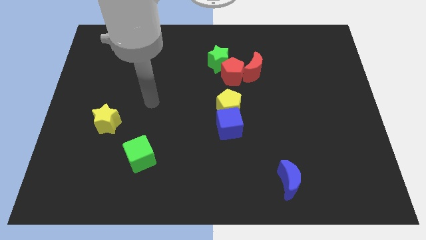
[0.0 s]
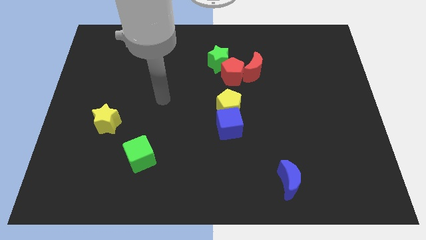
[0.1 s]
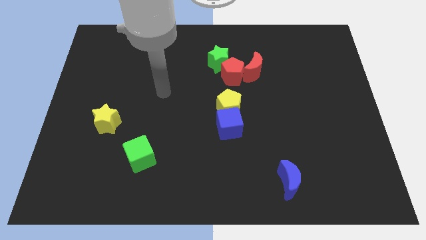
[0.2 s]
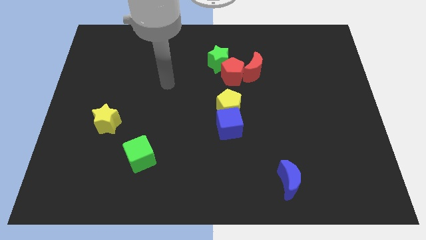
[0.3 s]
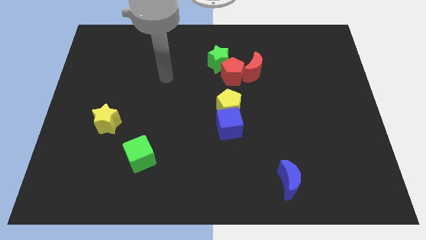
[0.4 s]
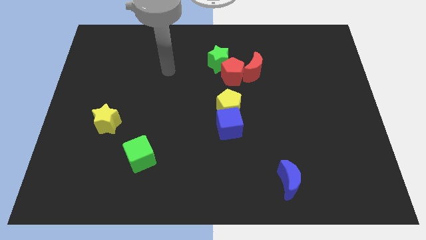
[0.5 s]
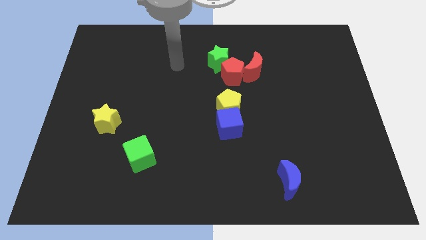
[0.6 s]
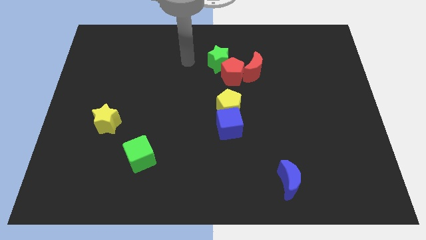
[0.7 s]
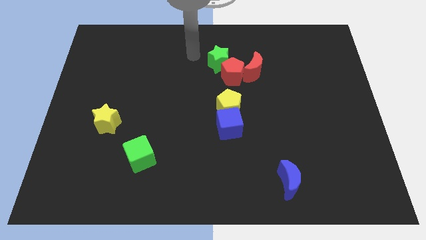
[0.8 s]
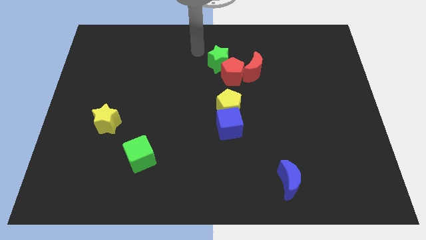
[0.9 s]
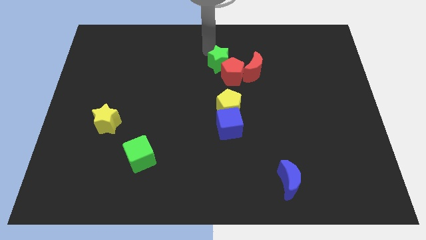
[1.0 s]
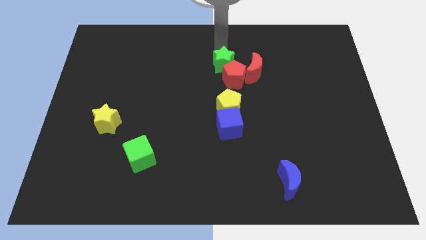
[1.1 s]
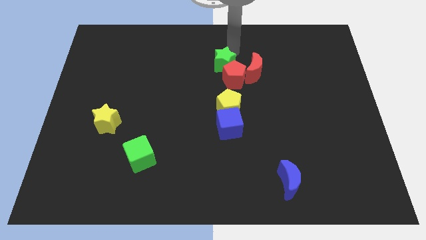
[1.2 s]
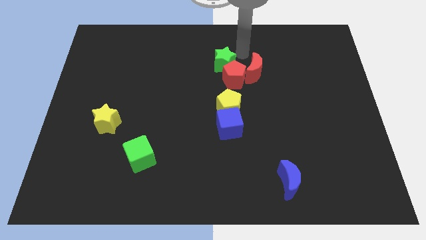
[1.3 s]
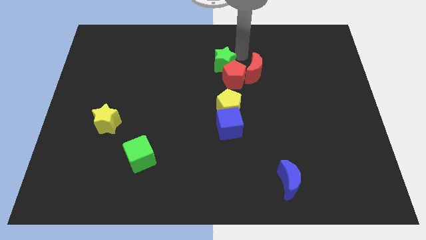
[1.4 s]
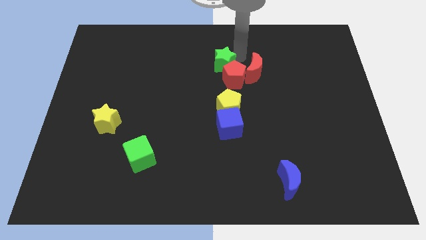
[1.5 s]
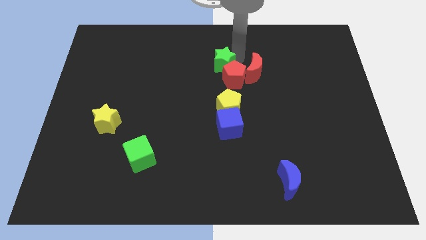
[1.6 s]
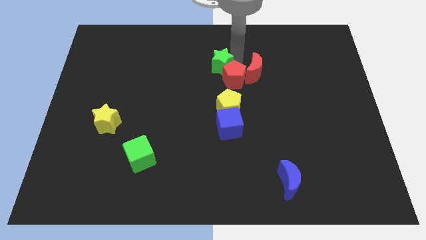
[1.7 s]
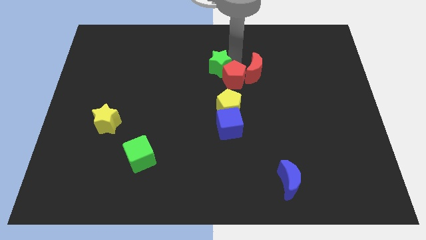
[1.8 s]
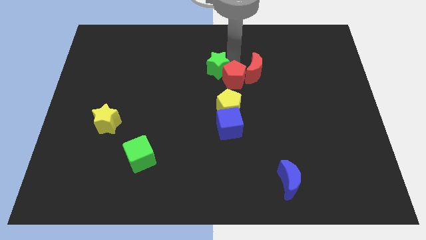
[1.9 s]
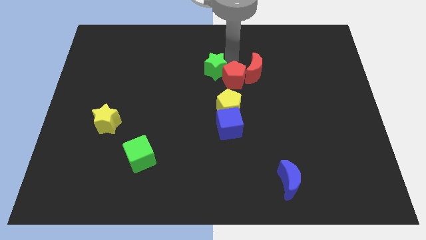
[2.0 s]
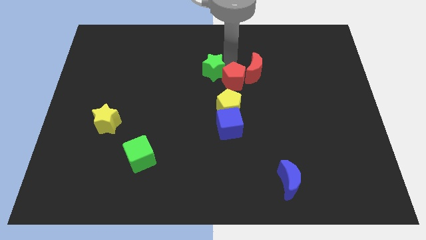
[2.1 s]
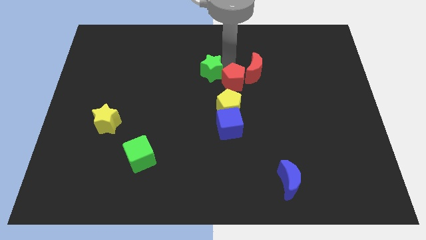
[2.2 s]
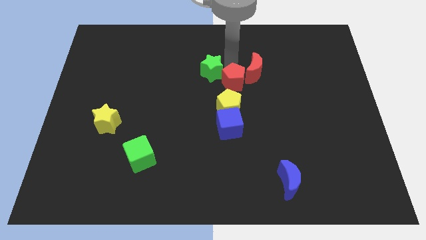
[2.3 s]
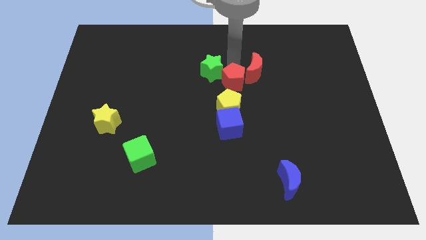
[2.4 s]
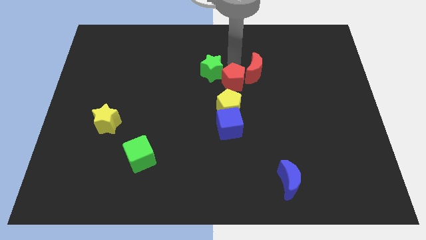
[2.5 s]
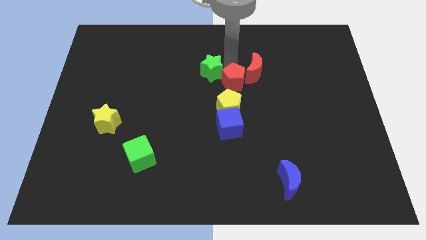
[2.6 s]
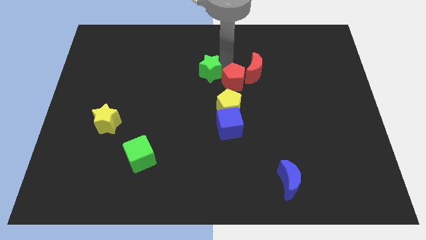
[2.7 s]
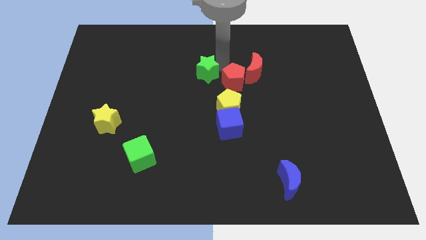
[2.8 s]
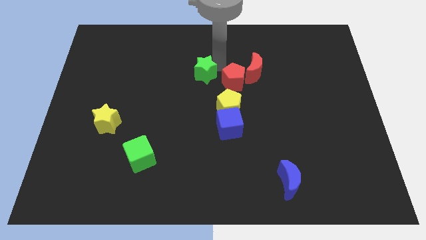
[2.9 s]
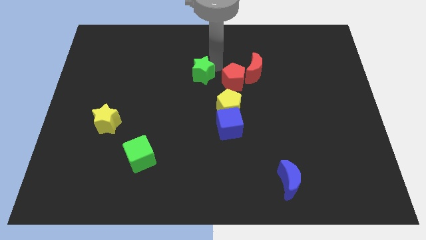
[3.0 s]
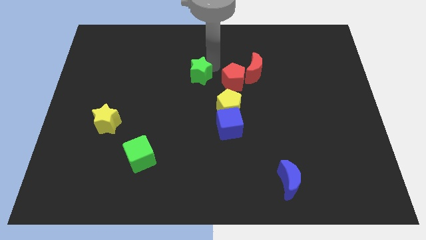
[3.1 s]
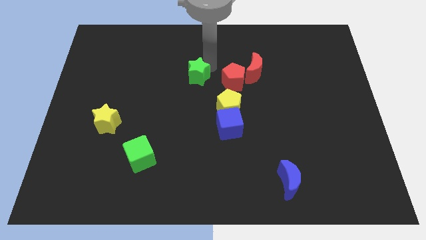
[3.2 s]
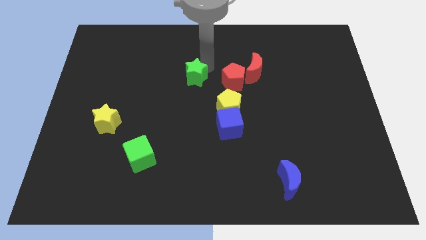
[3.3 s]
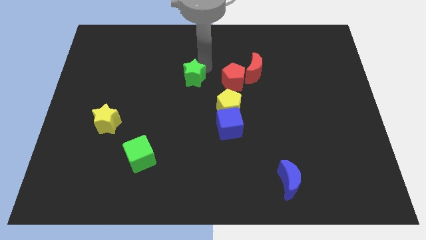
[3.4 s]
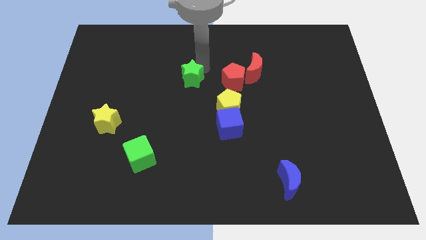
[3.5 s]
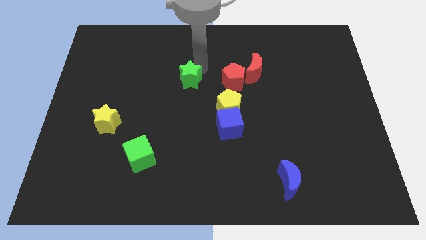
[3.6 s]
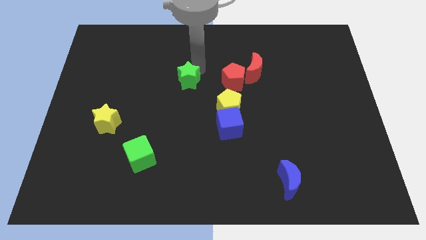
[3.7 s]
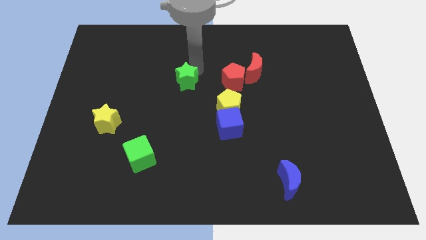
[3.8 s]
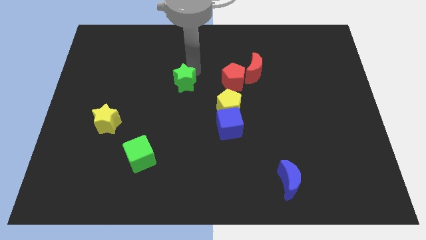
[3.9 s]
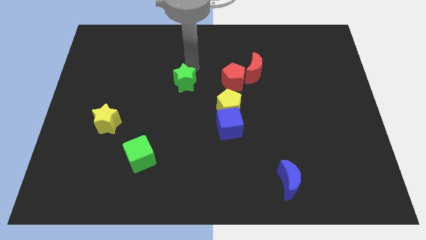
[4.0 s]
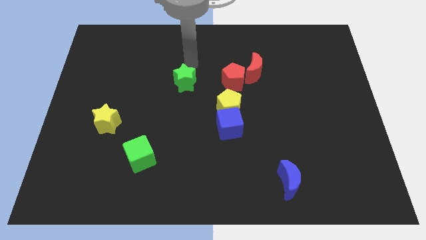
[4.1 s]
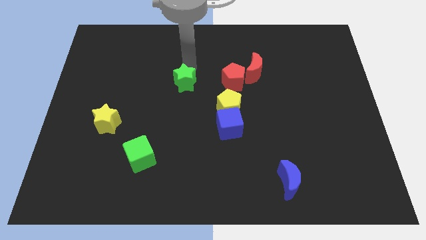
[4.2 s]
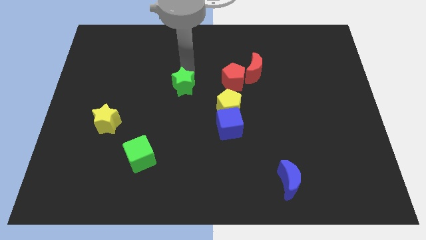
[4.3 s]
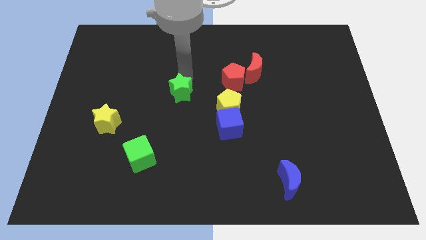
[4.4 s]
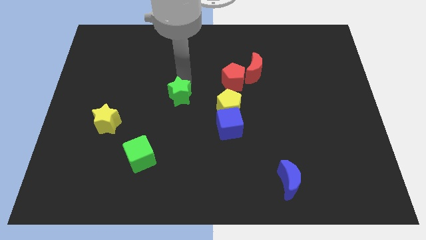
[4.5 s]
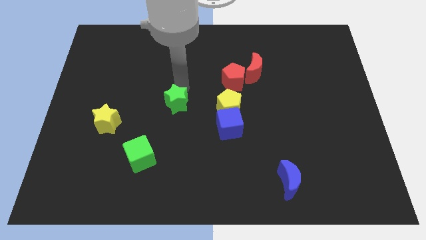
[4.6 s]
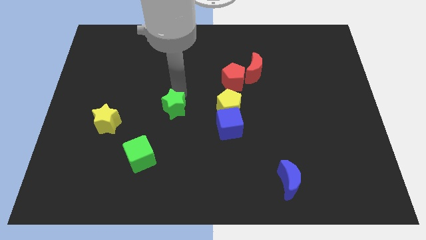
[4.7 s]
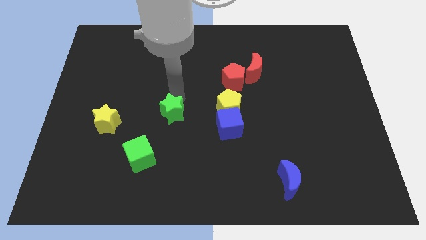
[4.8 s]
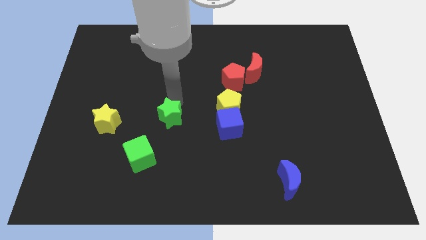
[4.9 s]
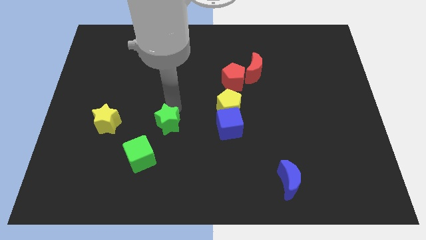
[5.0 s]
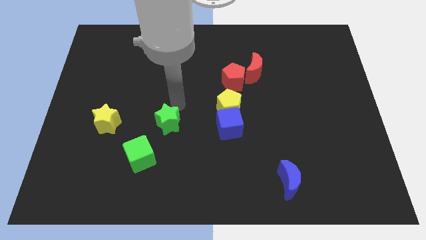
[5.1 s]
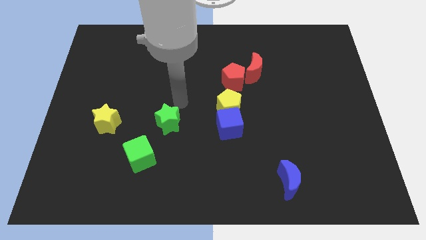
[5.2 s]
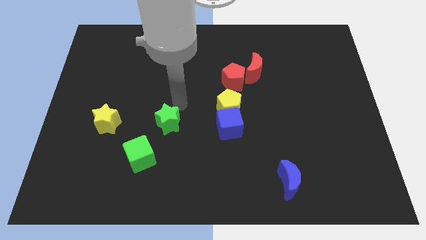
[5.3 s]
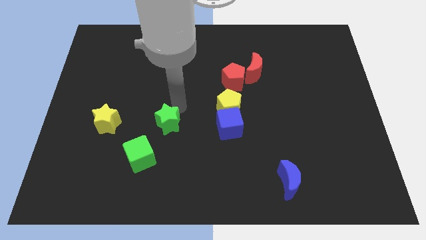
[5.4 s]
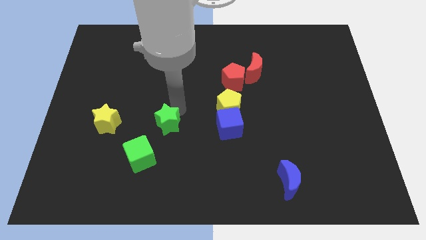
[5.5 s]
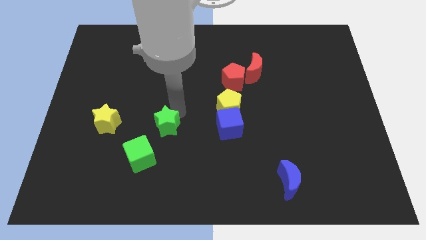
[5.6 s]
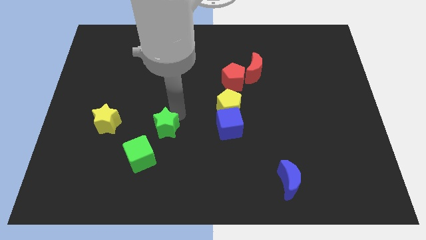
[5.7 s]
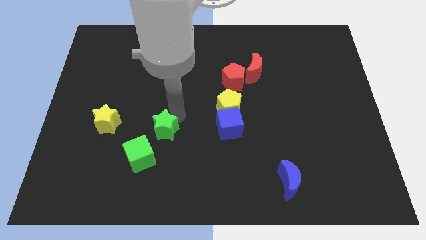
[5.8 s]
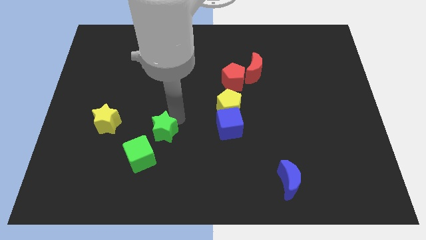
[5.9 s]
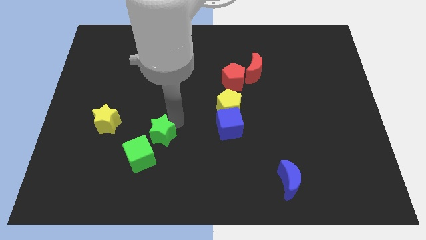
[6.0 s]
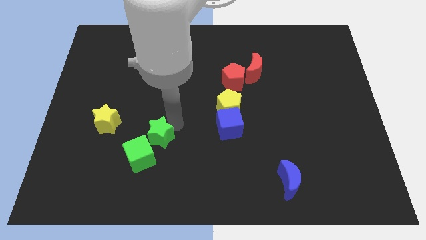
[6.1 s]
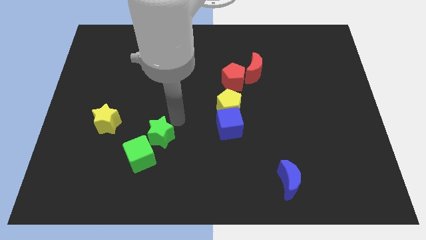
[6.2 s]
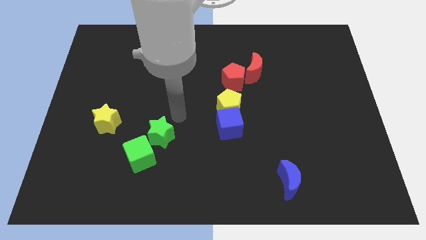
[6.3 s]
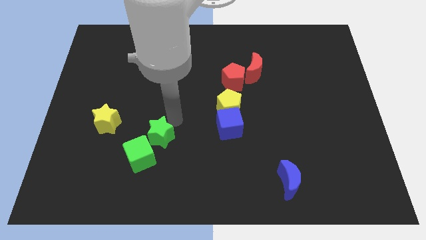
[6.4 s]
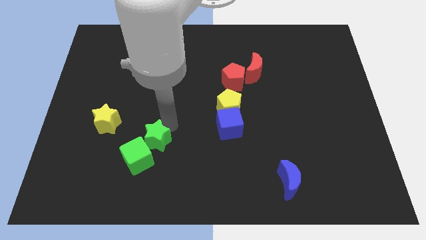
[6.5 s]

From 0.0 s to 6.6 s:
slide the green star next to the green cube
